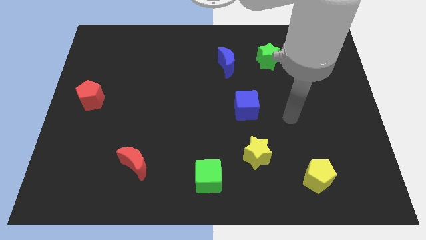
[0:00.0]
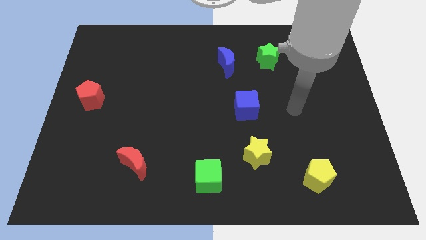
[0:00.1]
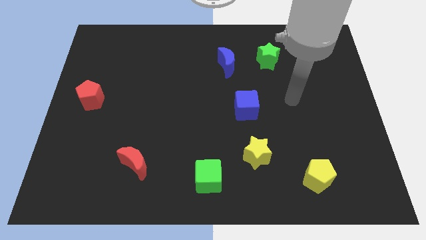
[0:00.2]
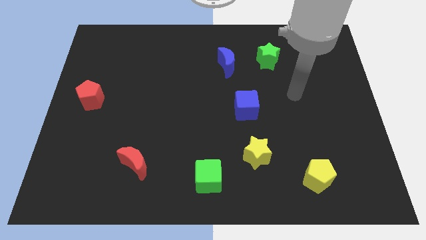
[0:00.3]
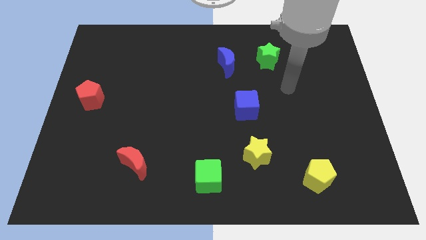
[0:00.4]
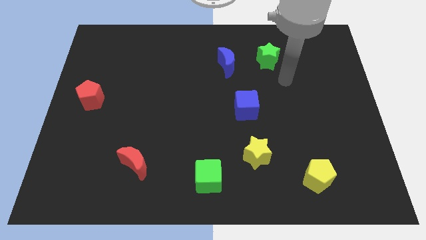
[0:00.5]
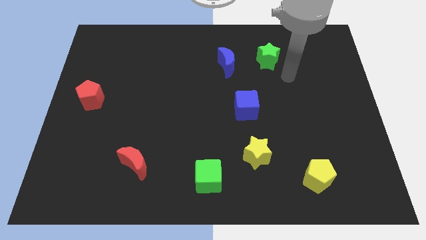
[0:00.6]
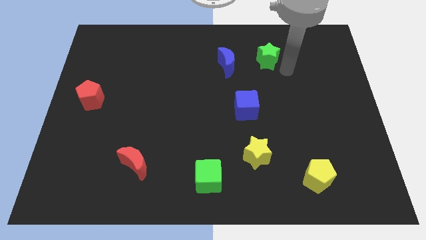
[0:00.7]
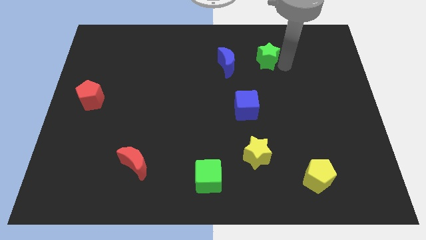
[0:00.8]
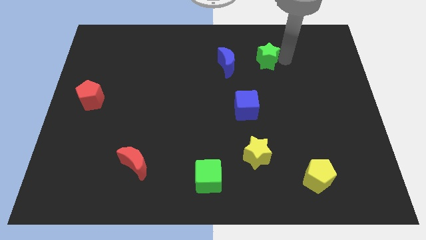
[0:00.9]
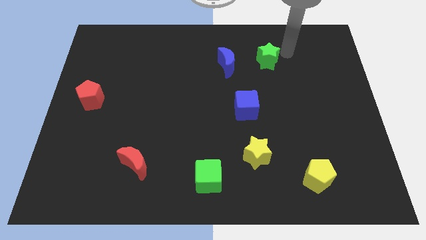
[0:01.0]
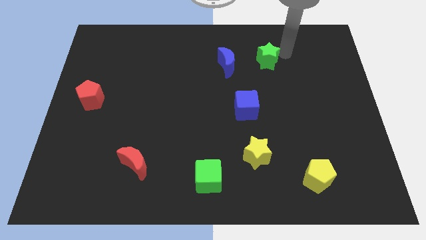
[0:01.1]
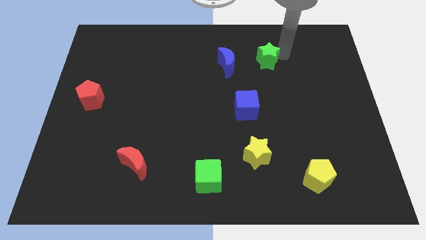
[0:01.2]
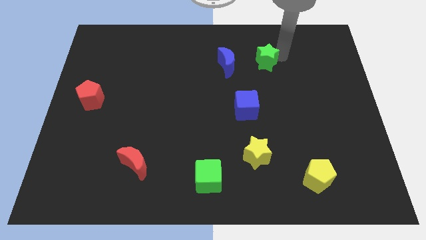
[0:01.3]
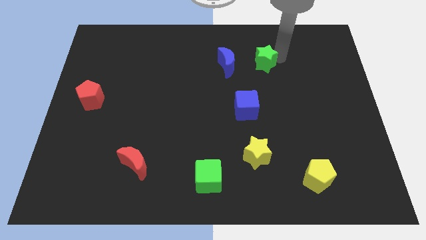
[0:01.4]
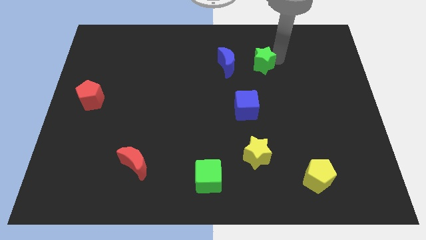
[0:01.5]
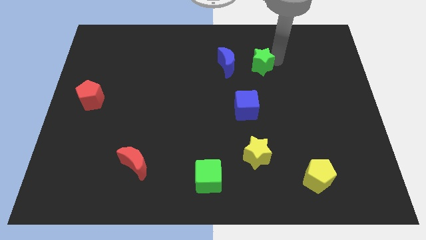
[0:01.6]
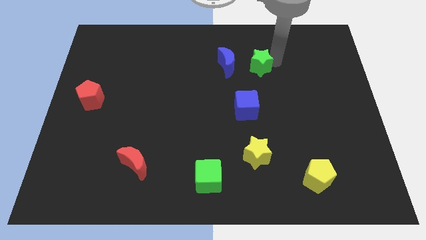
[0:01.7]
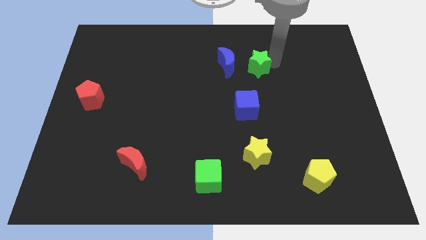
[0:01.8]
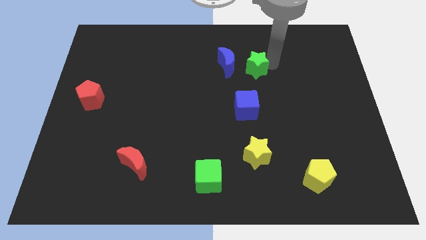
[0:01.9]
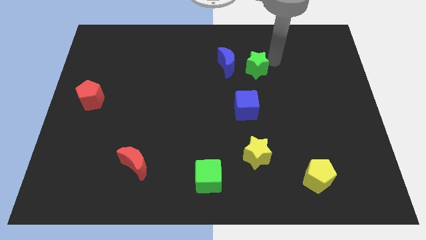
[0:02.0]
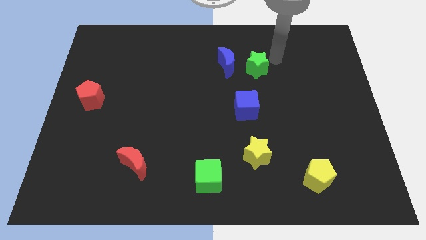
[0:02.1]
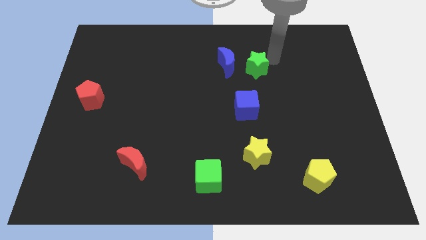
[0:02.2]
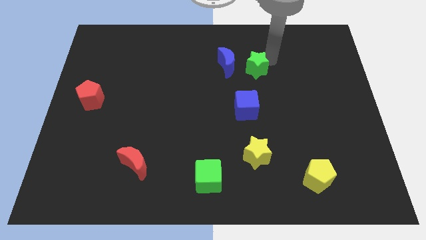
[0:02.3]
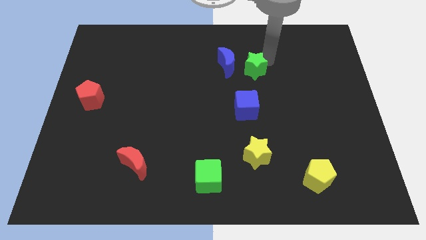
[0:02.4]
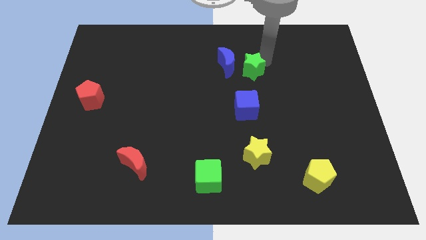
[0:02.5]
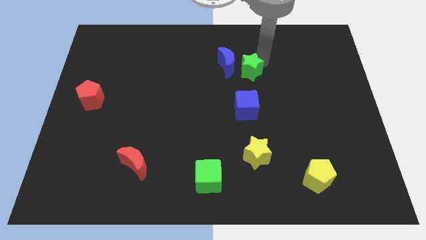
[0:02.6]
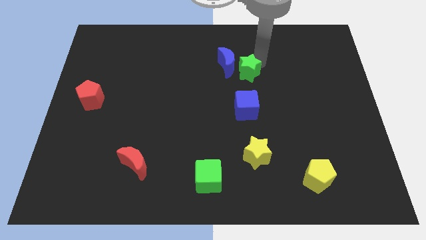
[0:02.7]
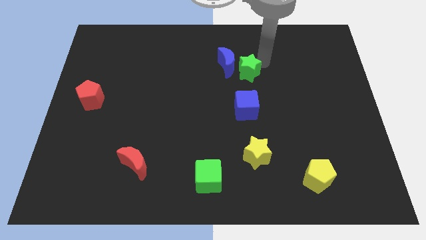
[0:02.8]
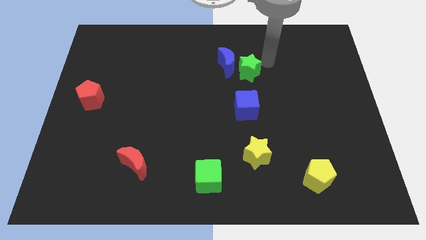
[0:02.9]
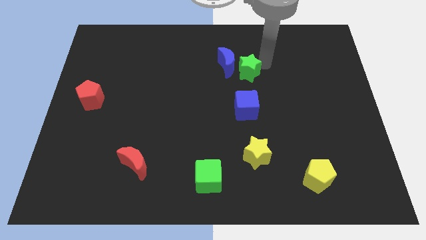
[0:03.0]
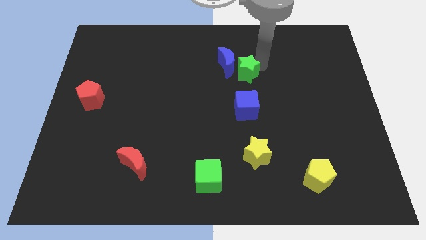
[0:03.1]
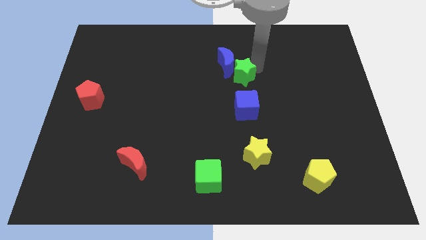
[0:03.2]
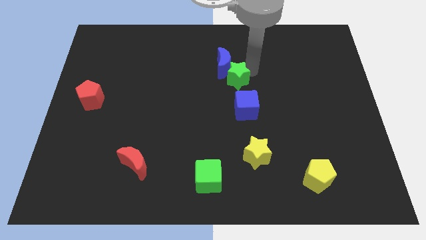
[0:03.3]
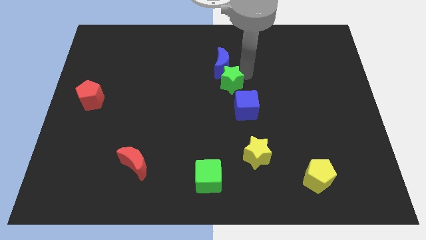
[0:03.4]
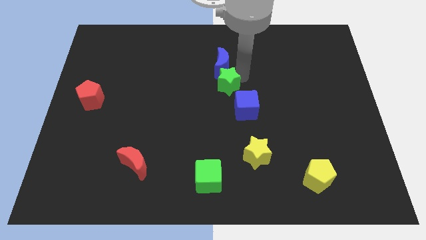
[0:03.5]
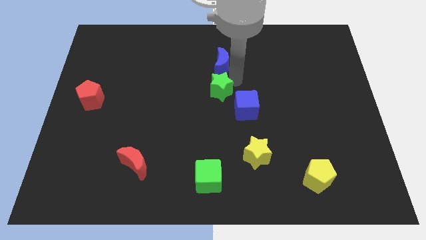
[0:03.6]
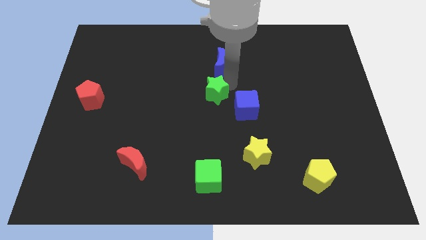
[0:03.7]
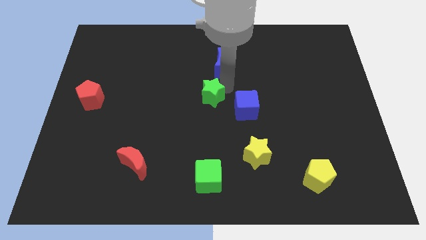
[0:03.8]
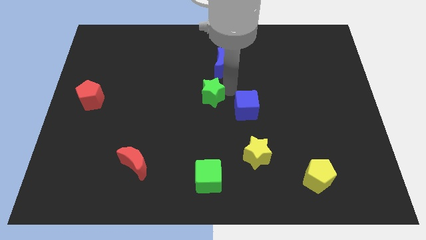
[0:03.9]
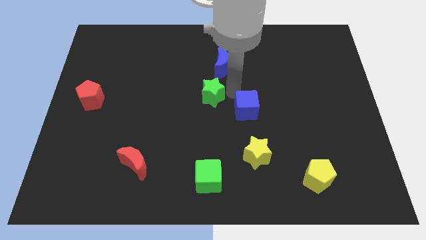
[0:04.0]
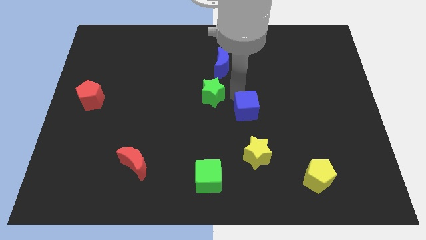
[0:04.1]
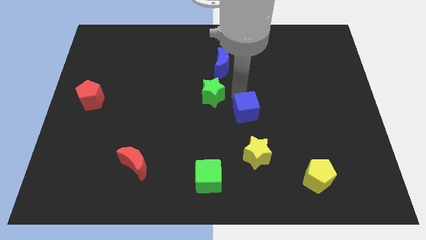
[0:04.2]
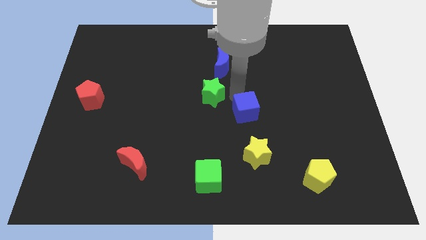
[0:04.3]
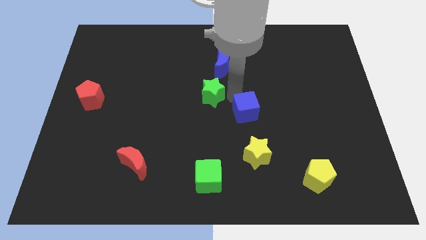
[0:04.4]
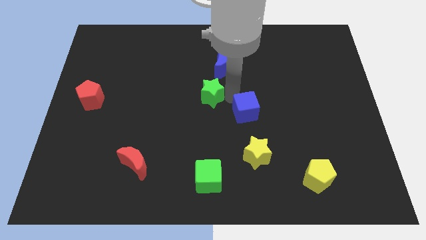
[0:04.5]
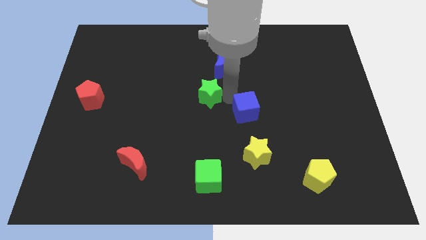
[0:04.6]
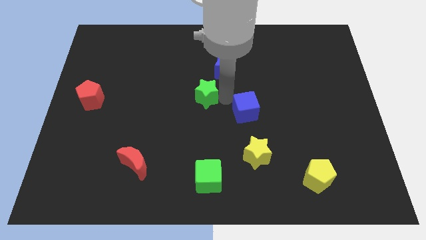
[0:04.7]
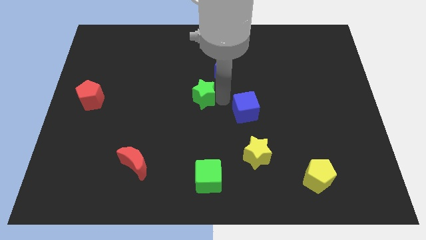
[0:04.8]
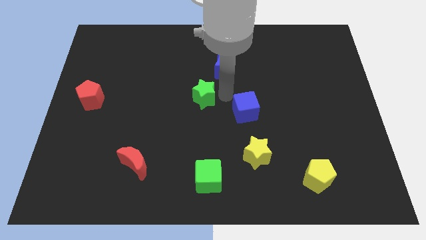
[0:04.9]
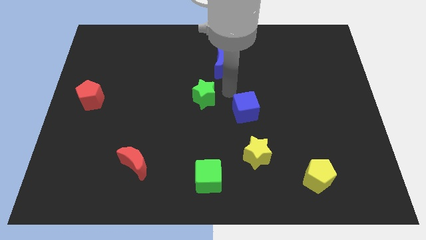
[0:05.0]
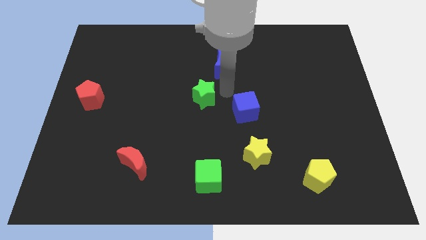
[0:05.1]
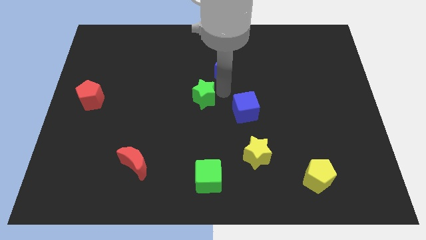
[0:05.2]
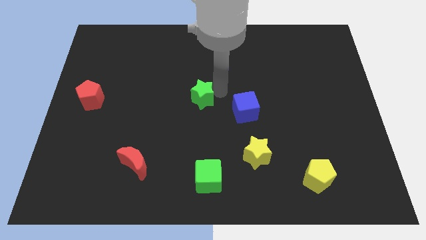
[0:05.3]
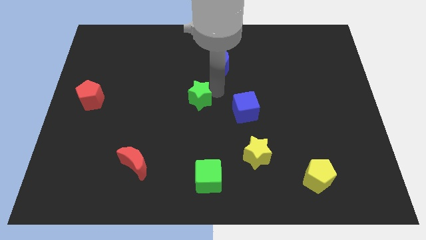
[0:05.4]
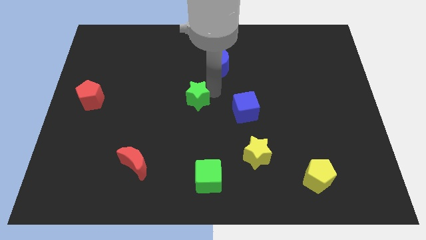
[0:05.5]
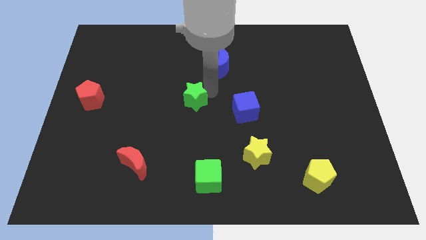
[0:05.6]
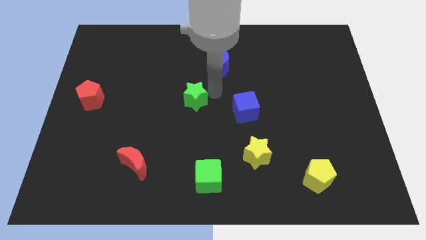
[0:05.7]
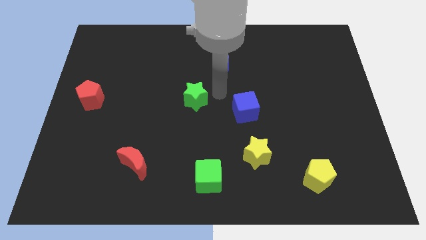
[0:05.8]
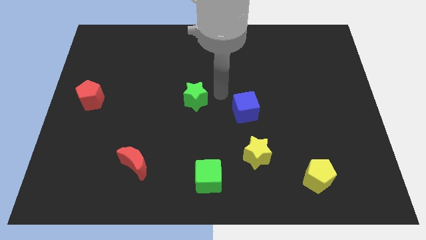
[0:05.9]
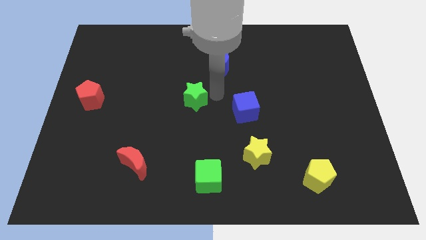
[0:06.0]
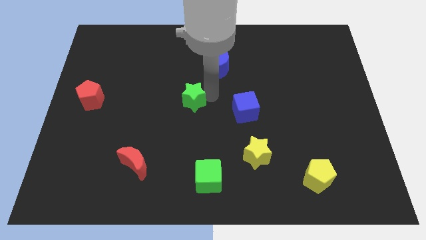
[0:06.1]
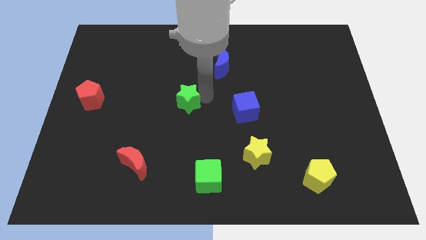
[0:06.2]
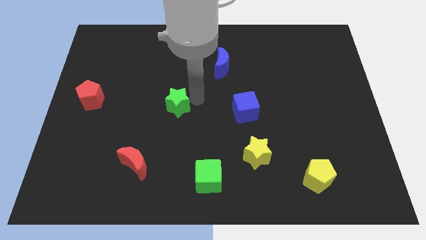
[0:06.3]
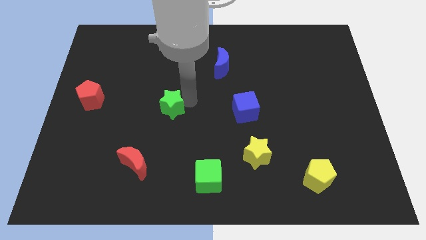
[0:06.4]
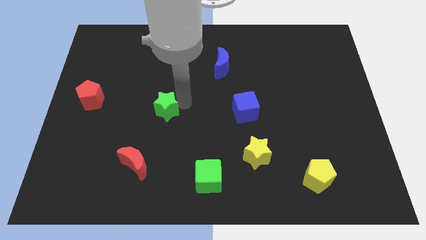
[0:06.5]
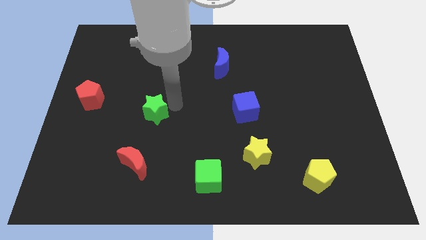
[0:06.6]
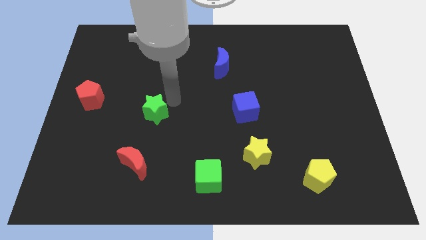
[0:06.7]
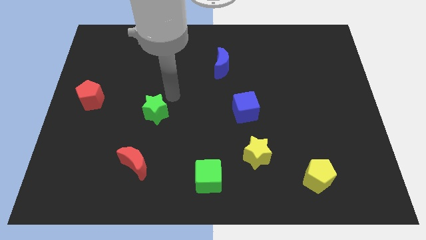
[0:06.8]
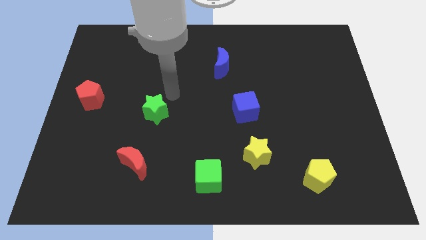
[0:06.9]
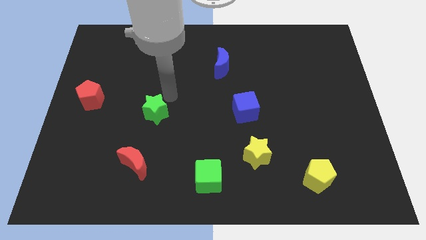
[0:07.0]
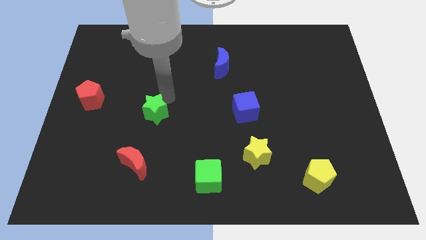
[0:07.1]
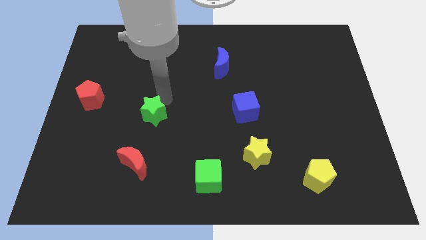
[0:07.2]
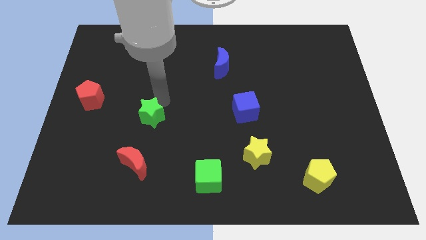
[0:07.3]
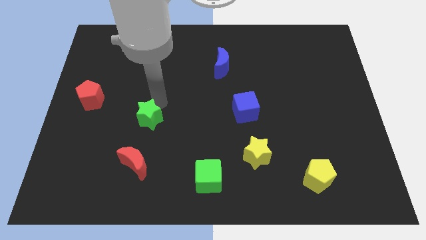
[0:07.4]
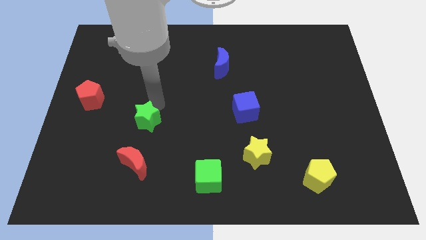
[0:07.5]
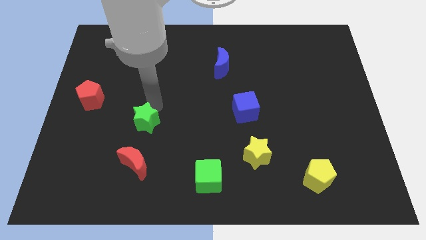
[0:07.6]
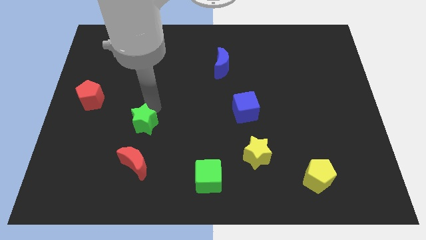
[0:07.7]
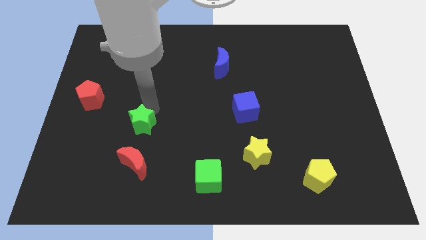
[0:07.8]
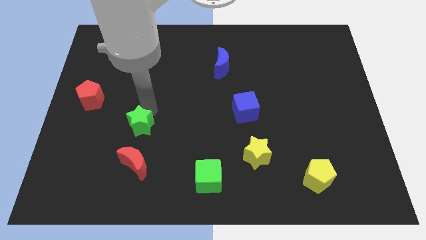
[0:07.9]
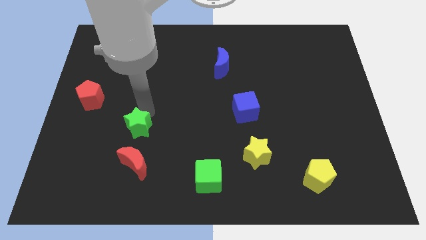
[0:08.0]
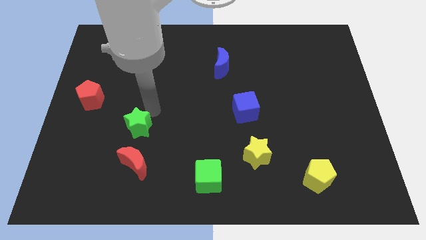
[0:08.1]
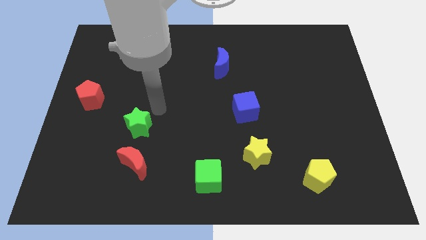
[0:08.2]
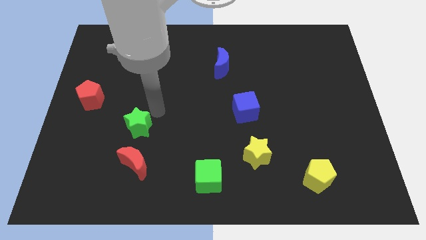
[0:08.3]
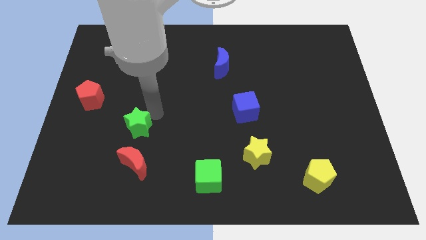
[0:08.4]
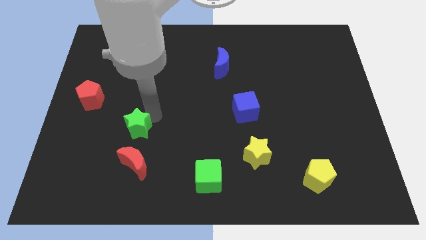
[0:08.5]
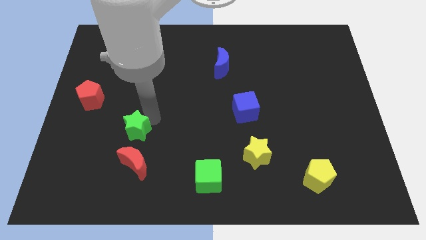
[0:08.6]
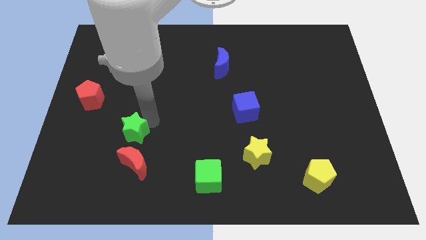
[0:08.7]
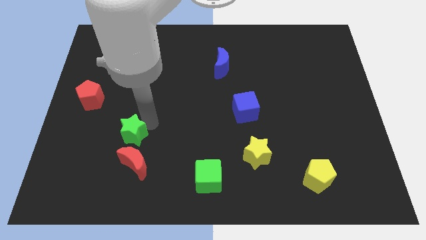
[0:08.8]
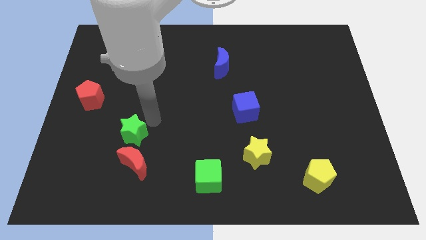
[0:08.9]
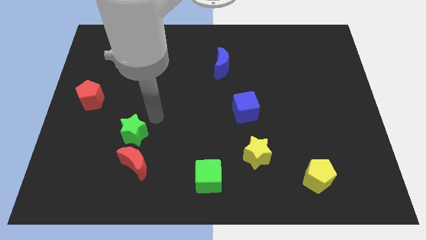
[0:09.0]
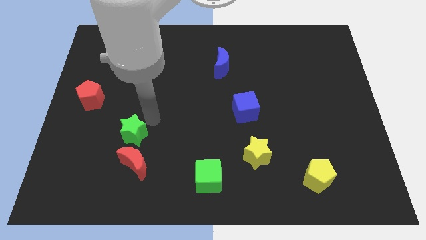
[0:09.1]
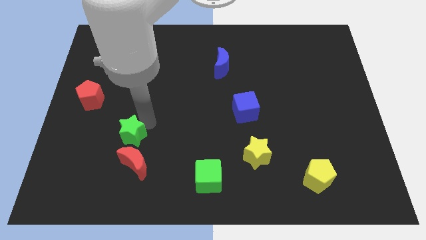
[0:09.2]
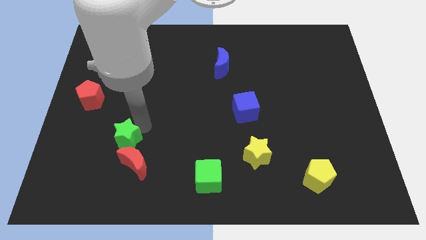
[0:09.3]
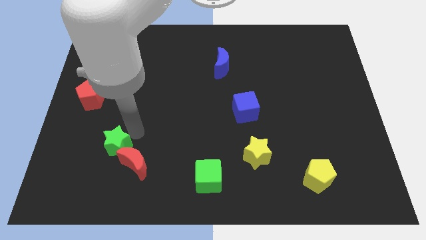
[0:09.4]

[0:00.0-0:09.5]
put the green star just left of the red moon
